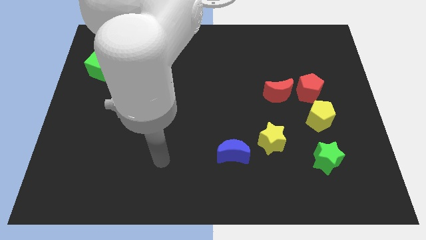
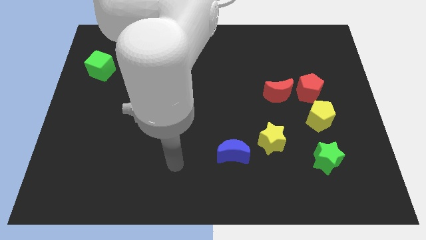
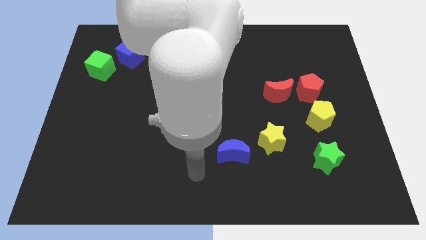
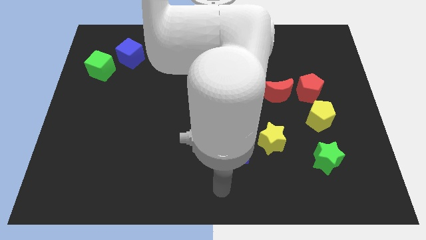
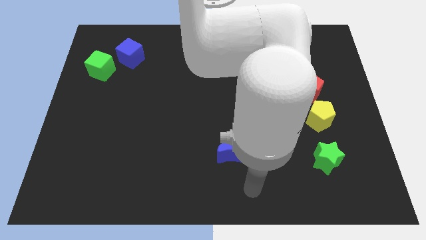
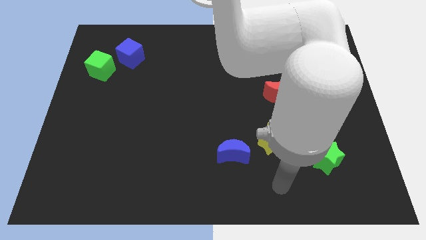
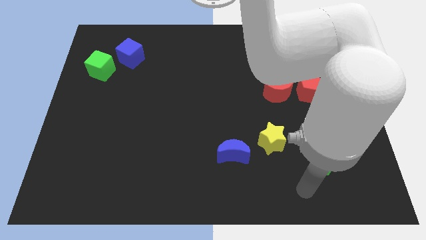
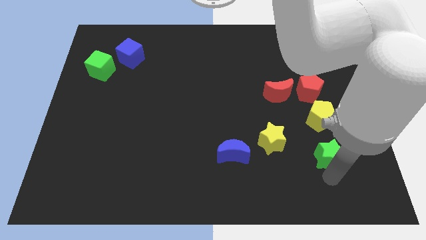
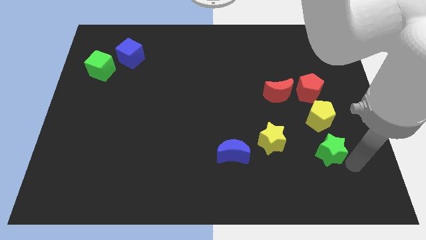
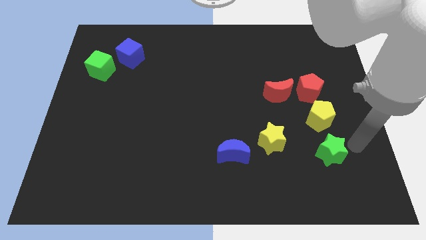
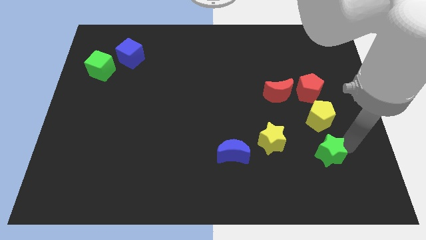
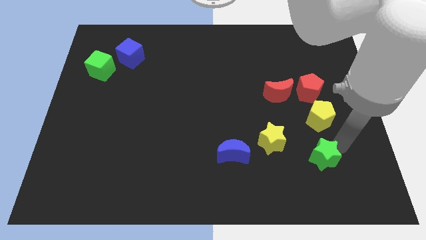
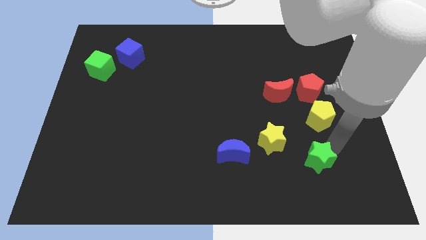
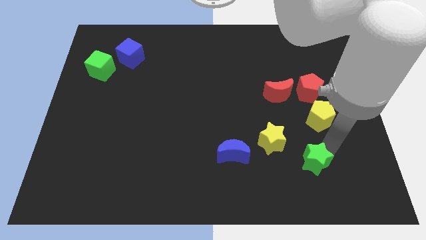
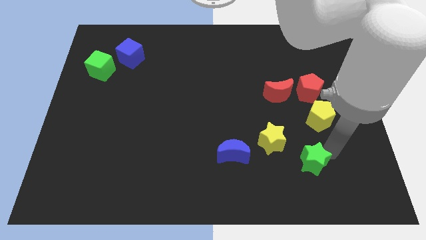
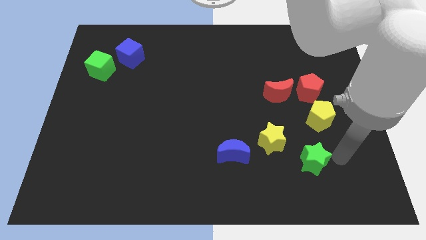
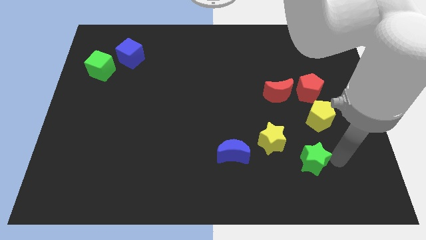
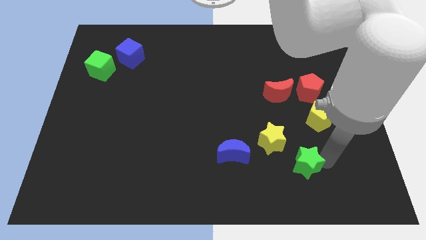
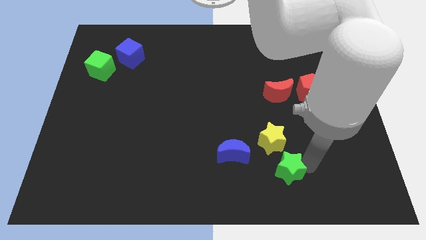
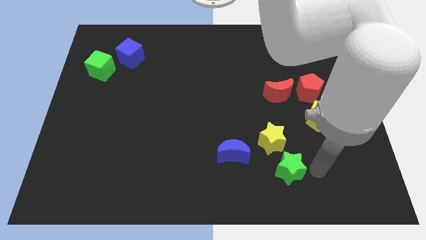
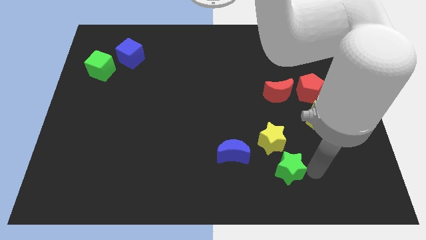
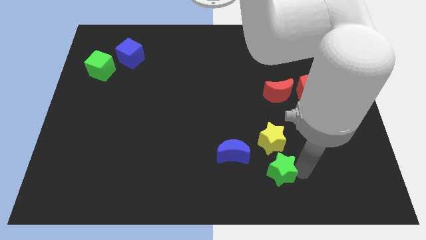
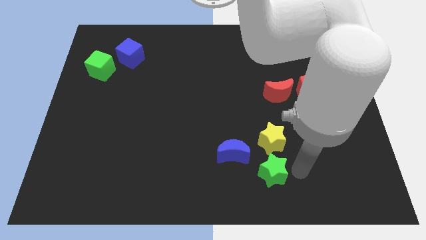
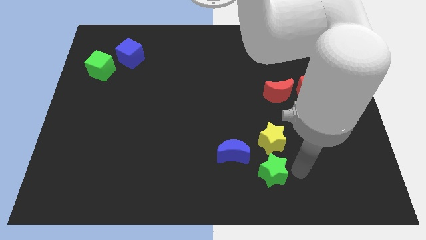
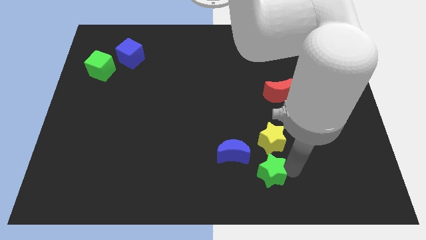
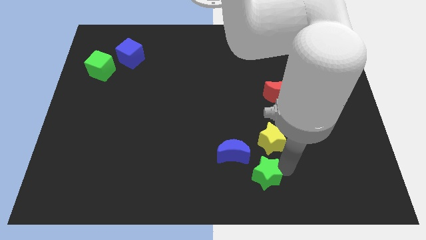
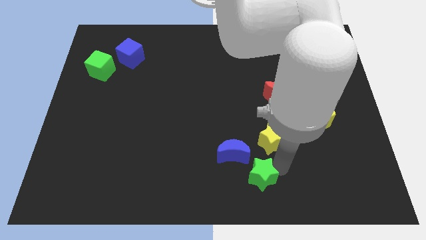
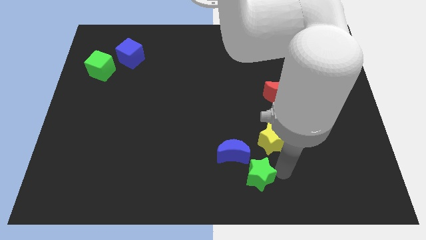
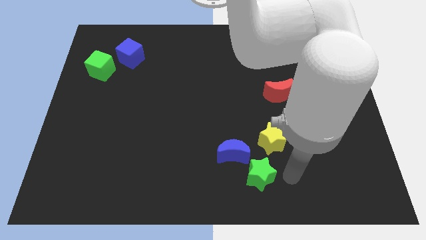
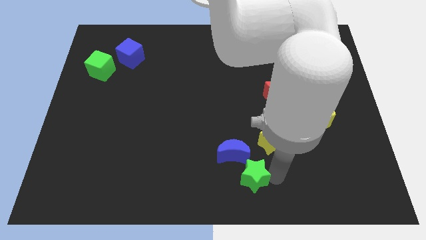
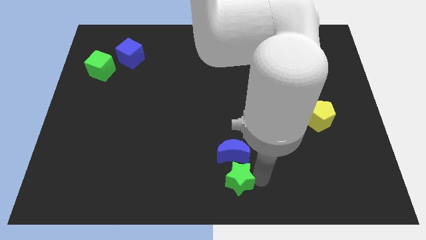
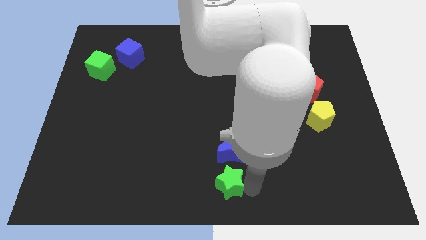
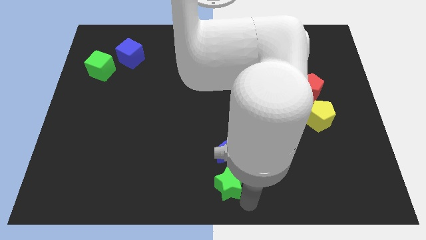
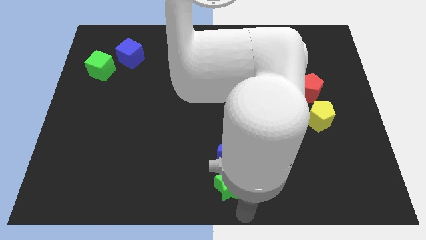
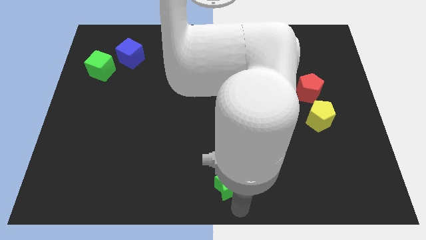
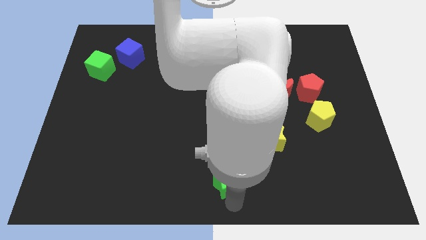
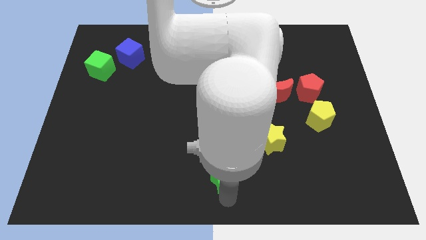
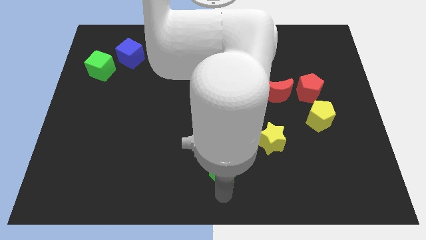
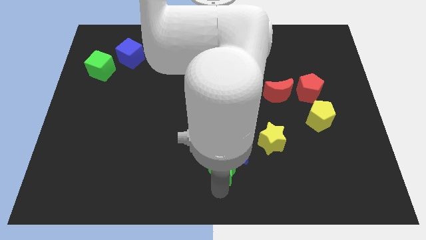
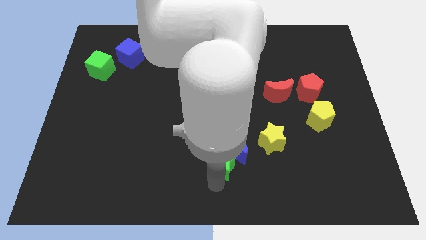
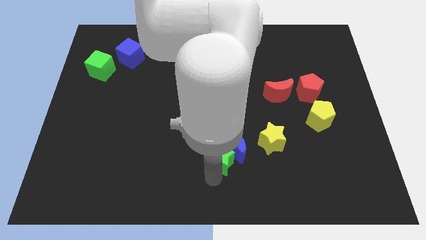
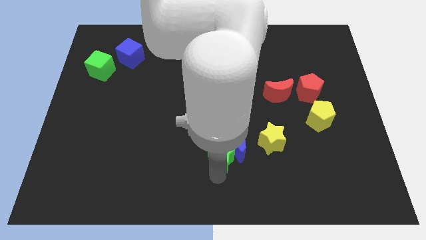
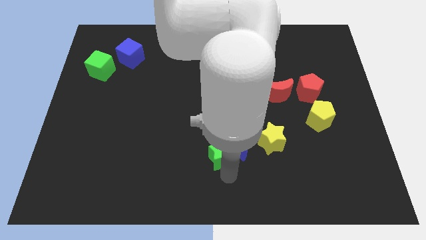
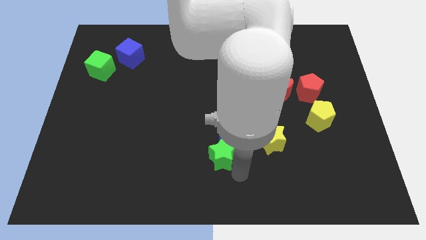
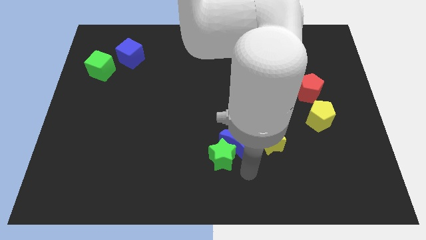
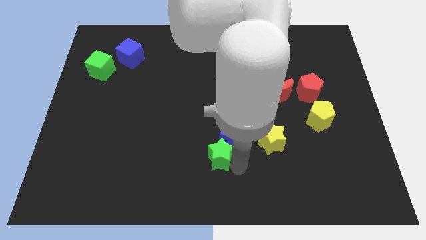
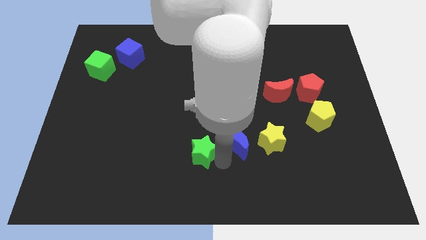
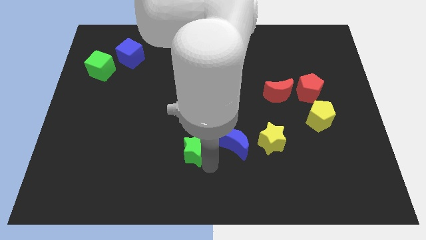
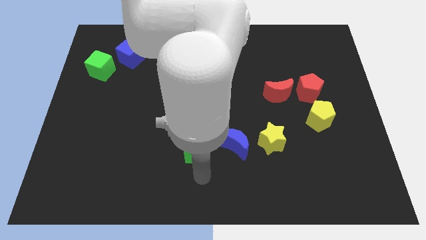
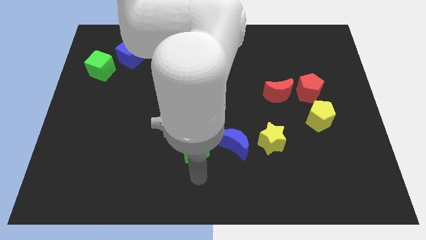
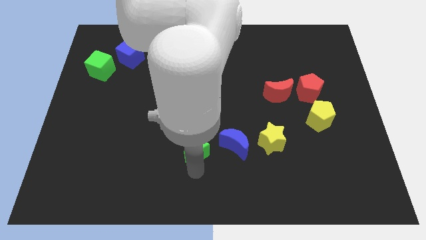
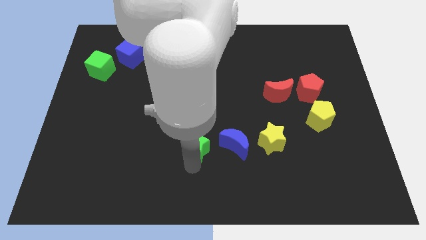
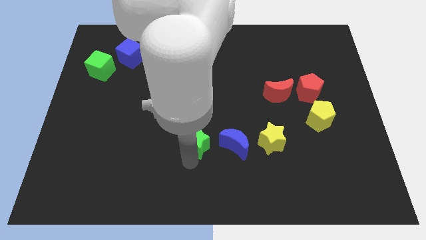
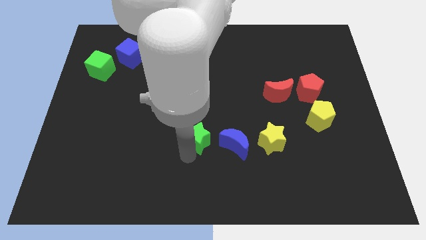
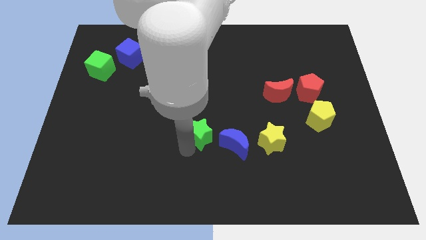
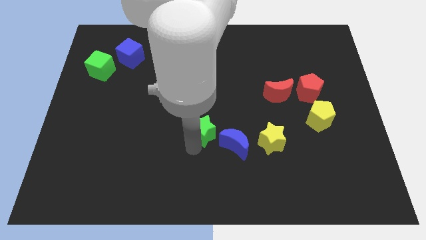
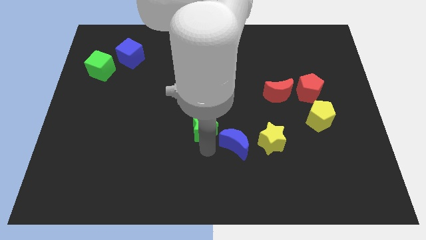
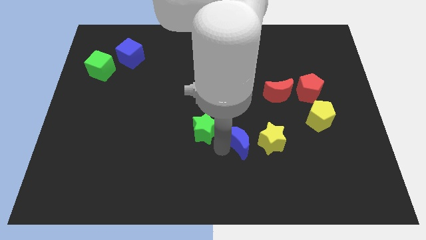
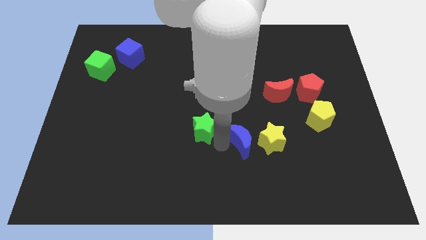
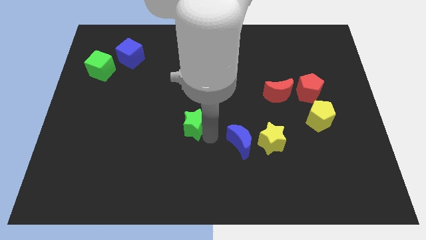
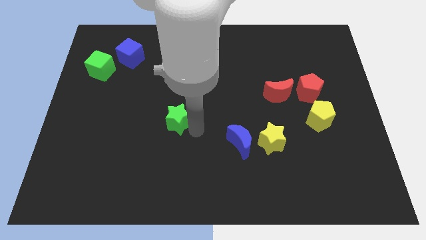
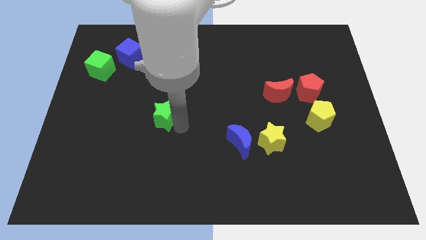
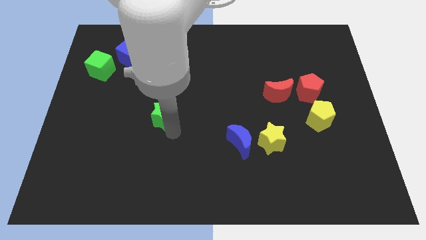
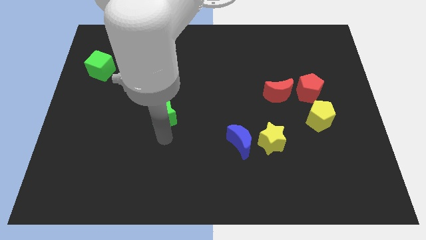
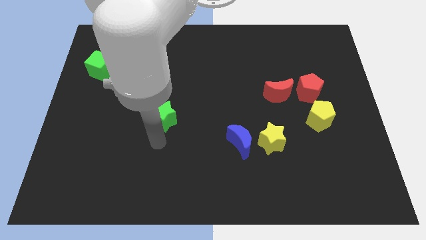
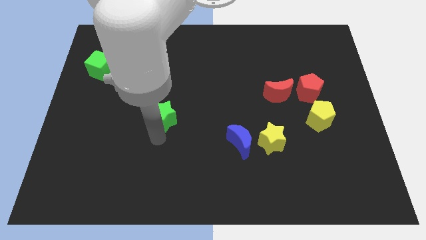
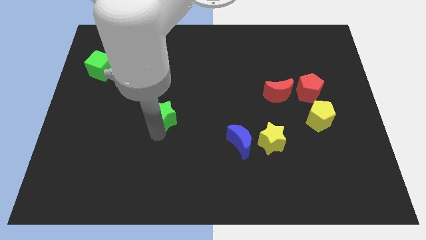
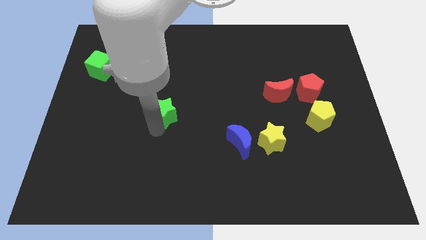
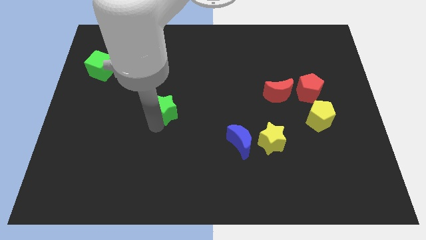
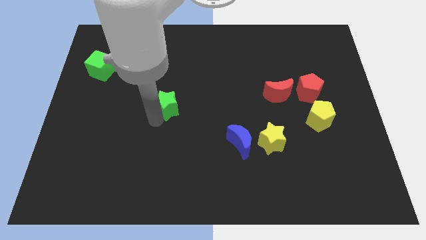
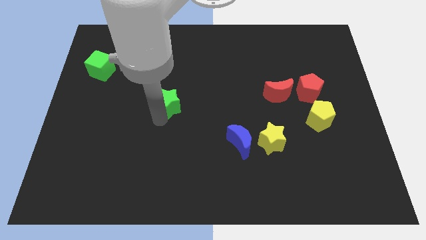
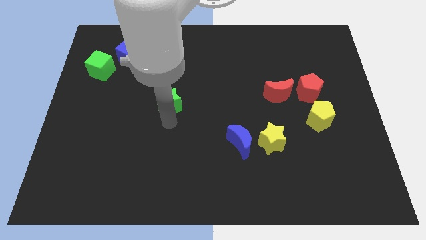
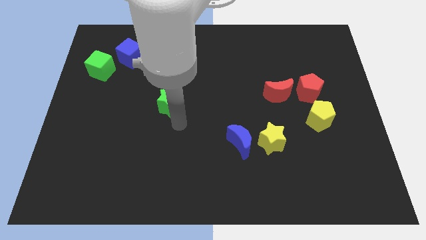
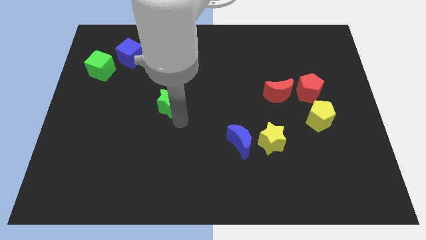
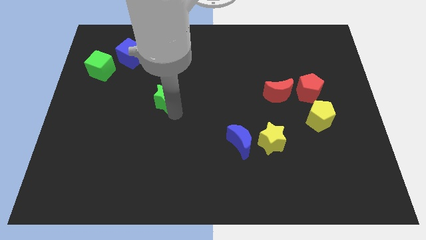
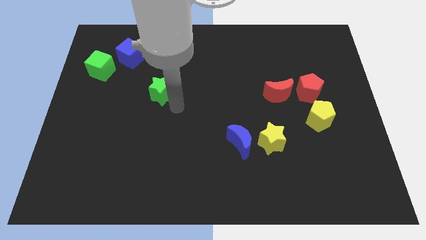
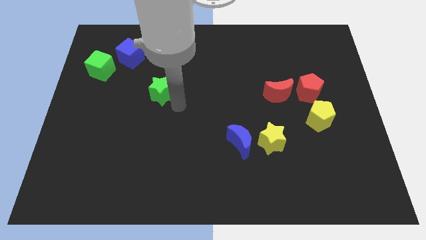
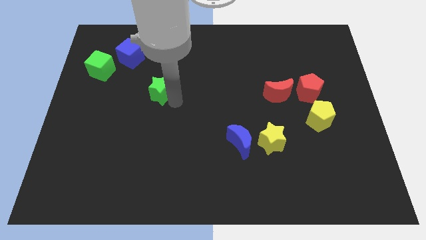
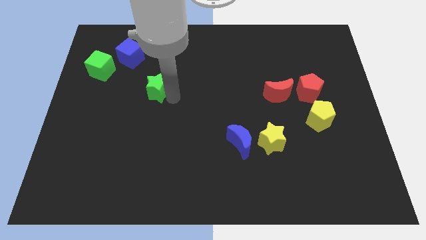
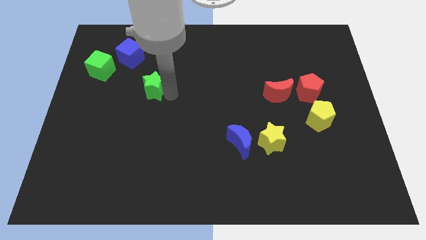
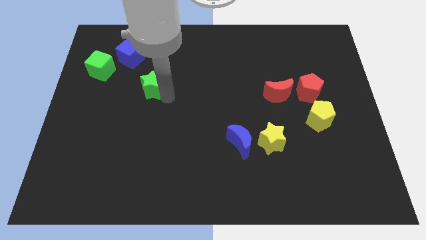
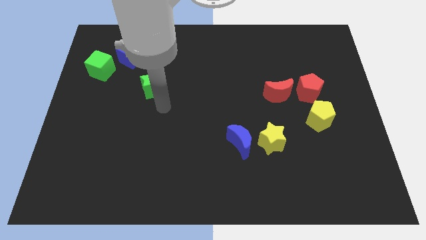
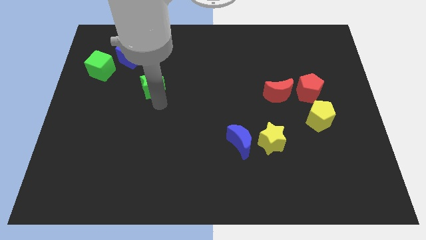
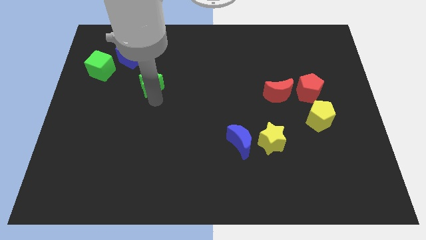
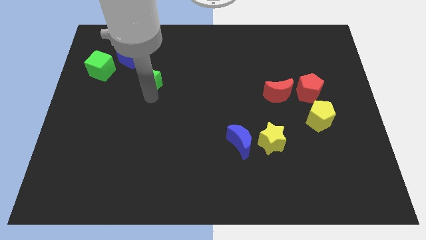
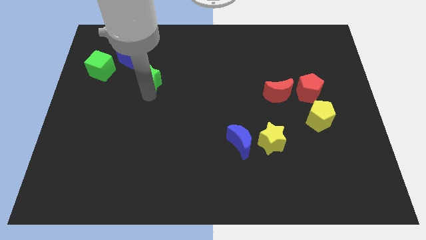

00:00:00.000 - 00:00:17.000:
push the green star just right of the green cube
